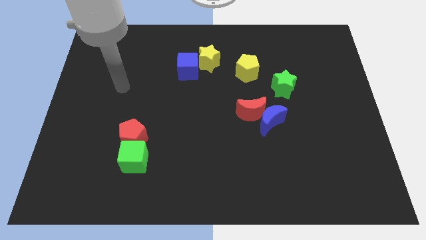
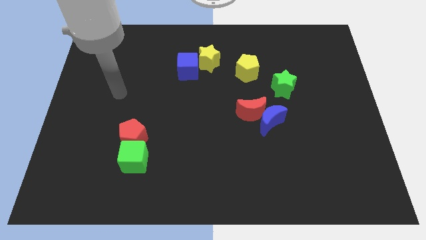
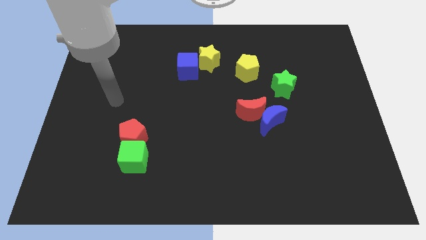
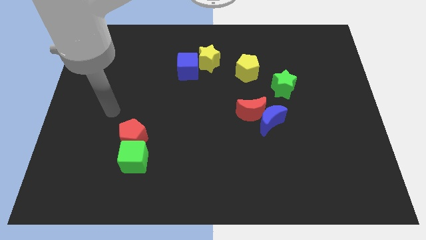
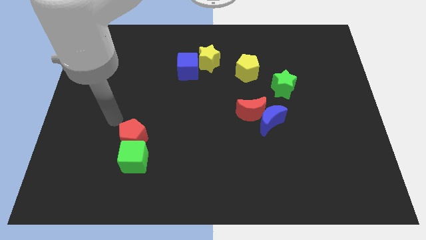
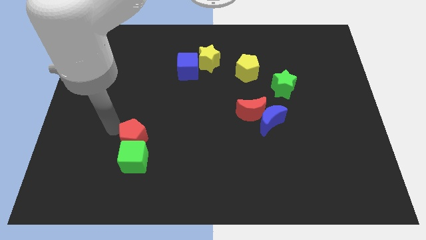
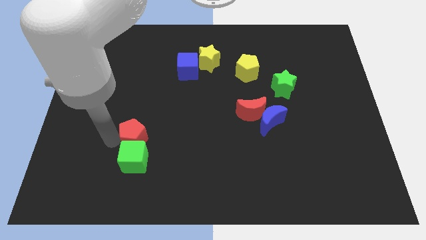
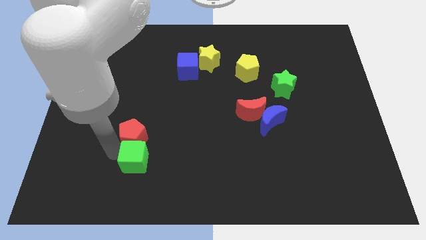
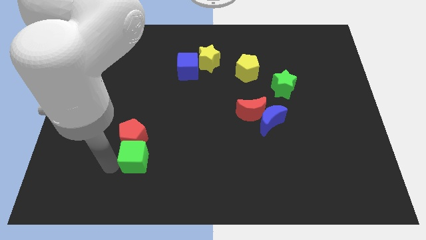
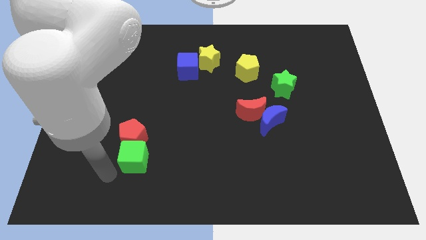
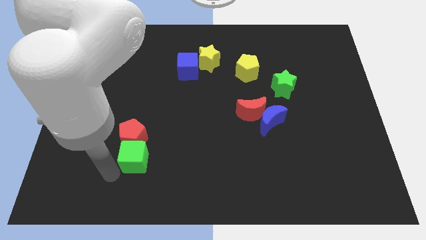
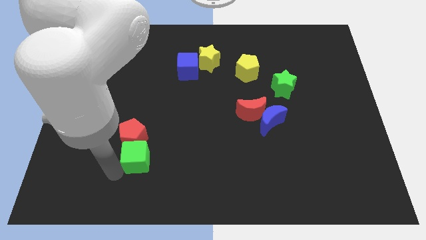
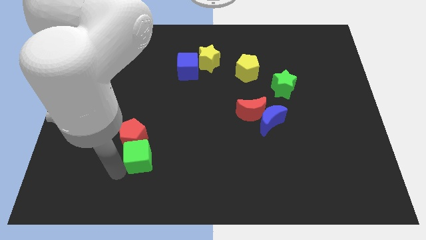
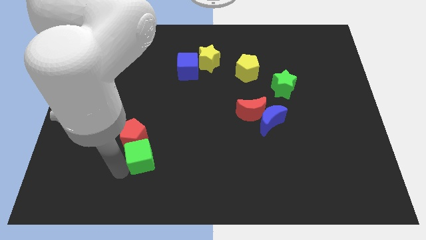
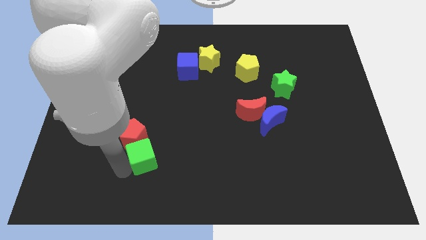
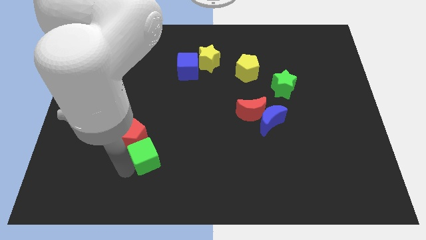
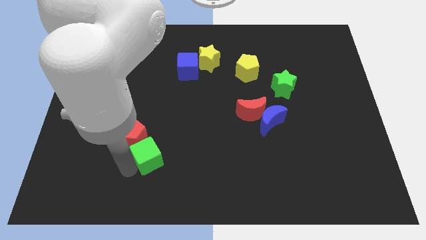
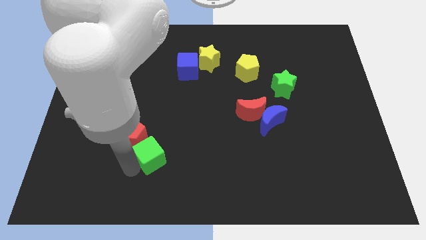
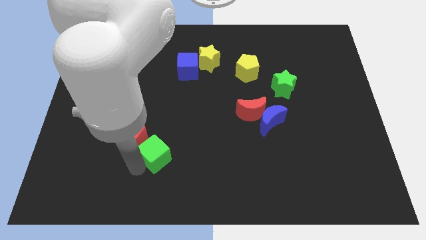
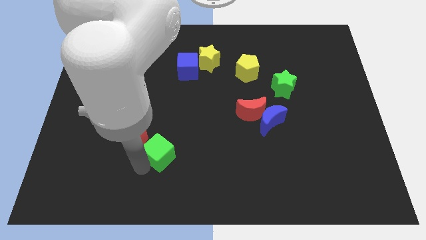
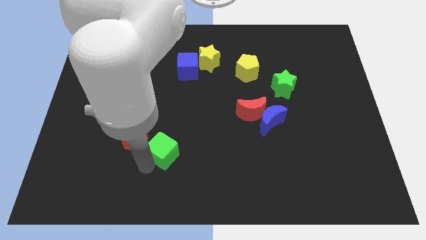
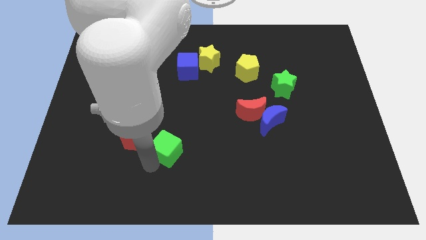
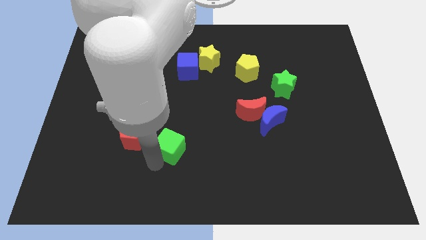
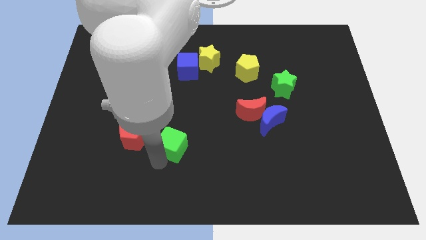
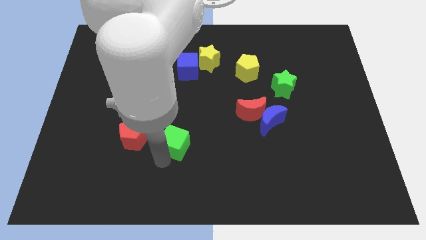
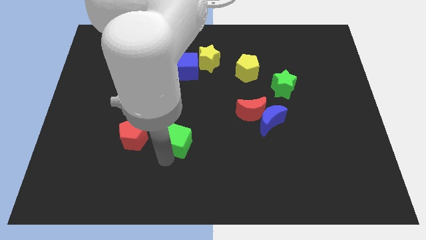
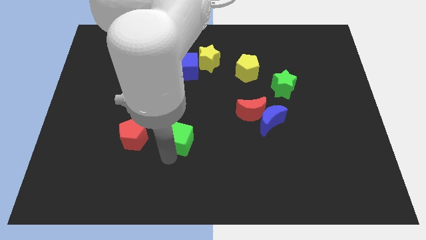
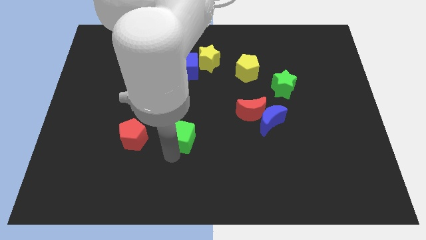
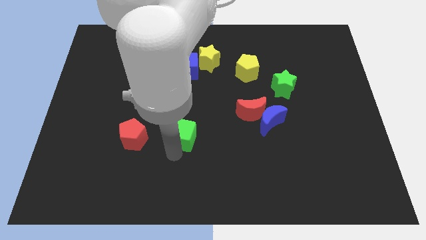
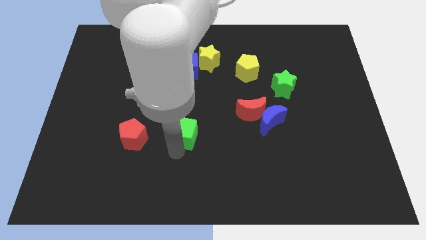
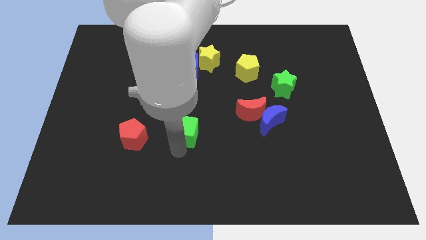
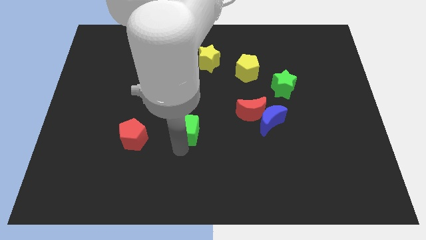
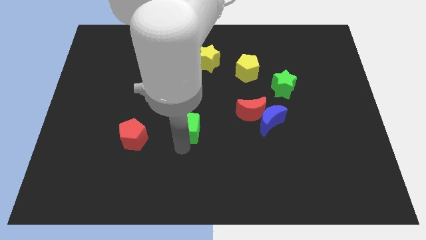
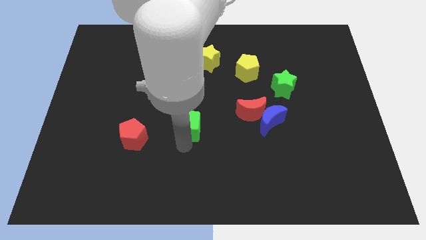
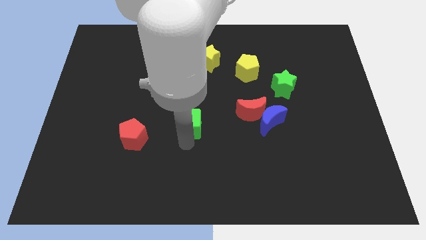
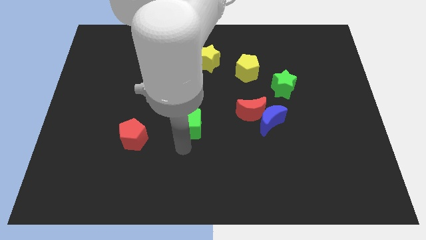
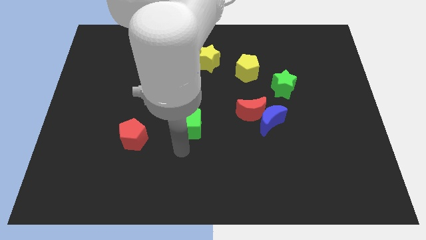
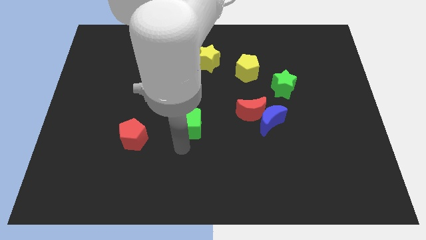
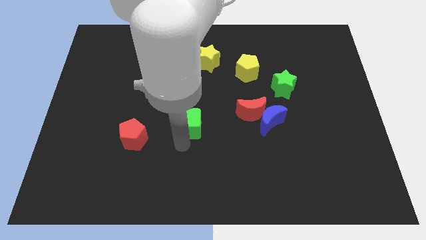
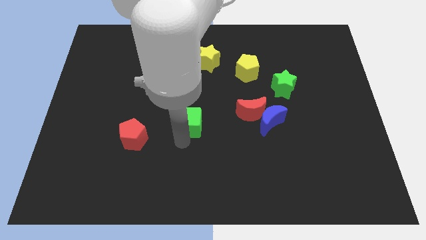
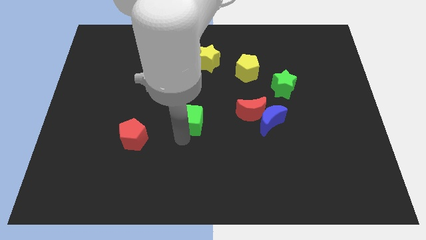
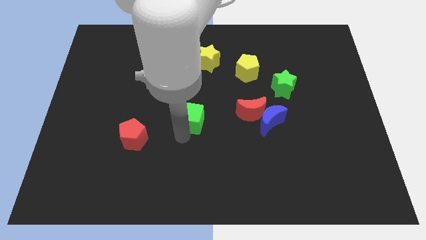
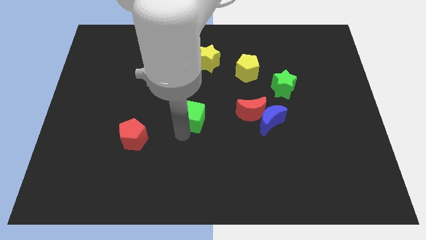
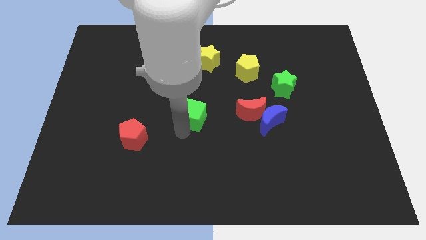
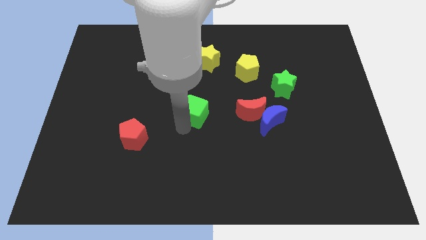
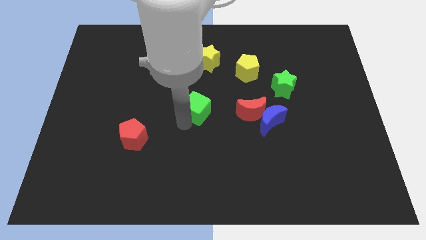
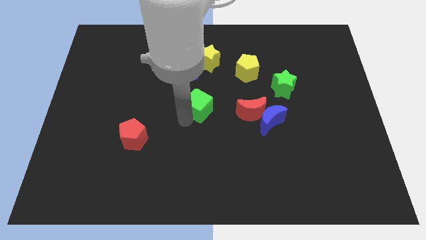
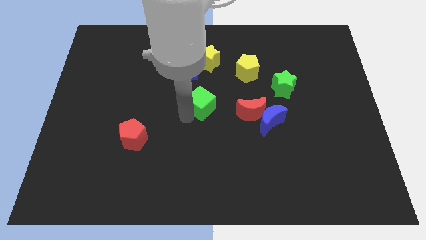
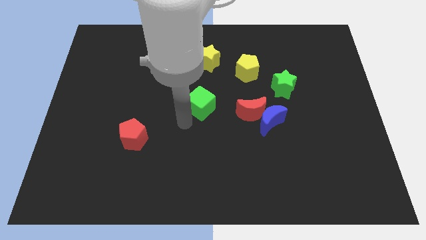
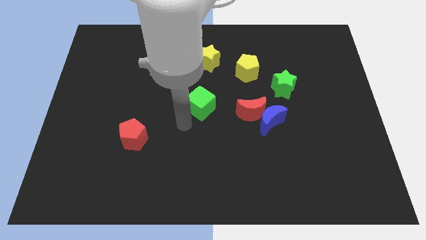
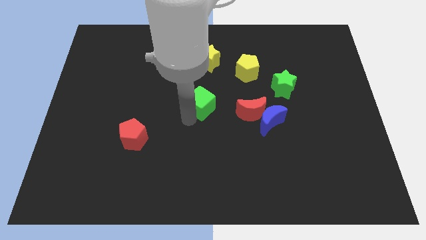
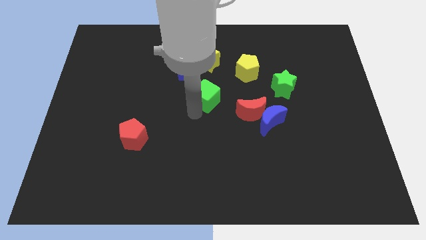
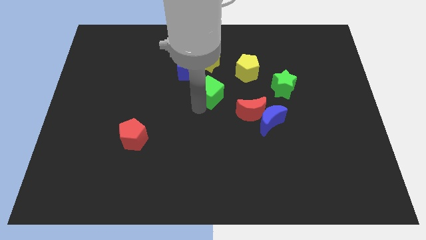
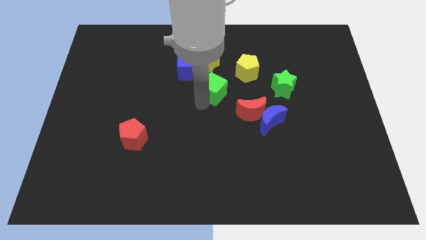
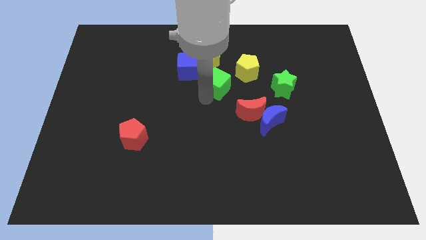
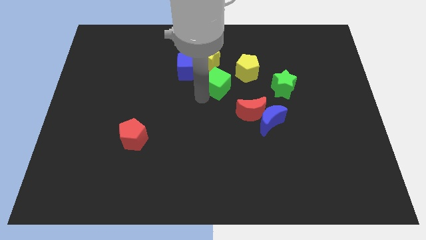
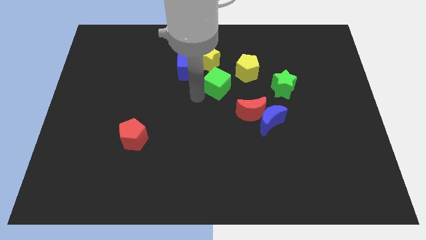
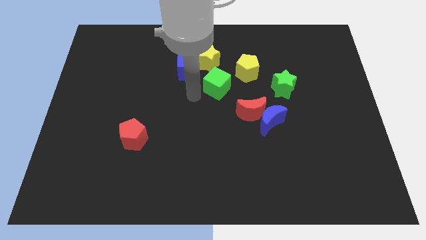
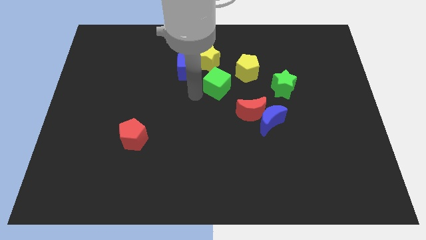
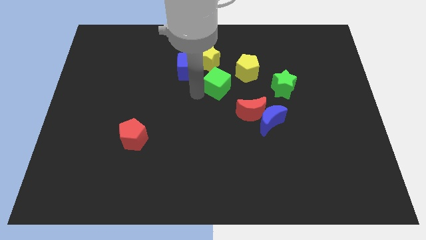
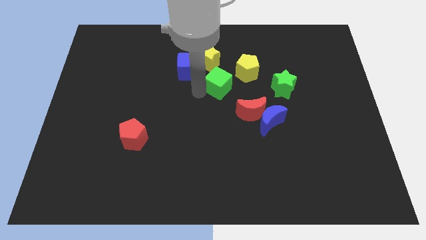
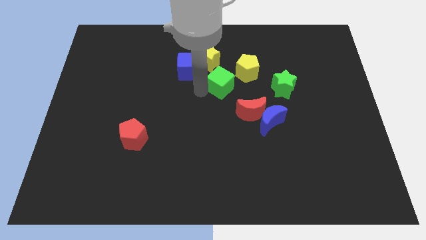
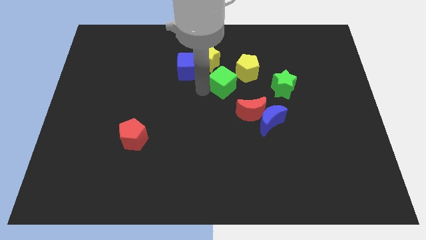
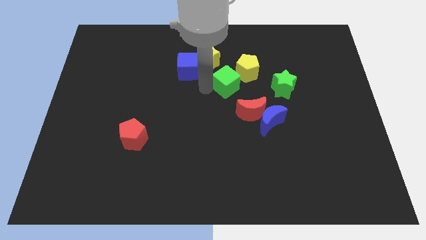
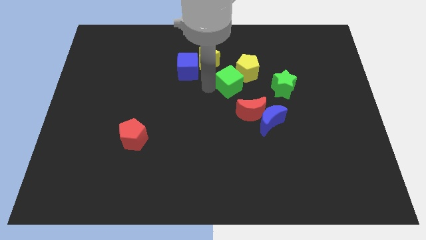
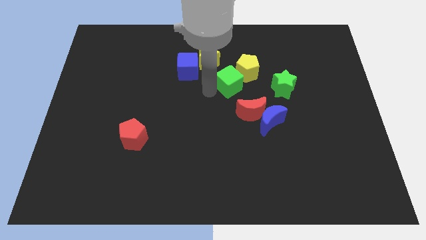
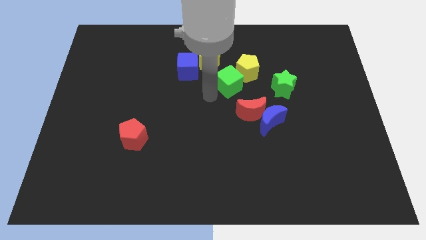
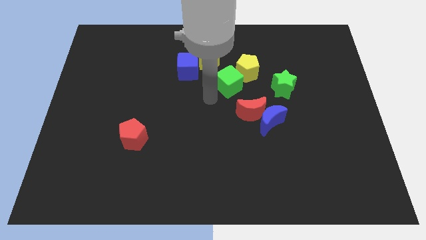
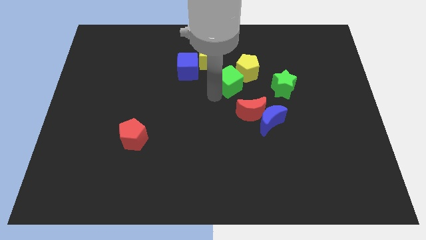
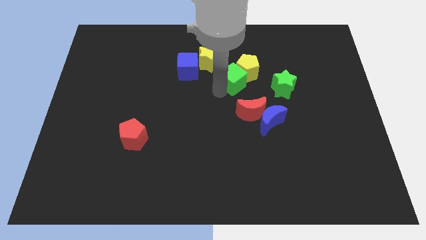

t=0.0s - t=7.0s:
put the green cube towards the yellow pentagon
